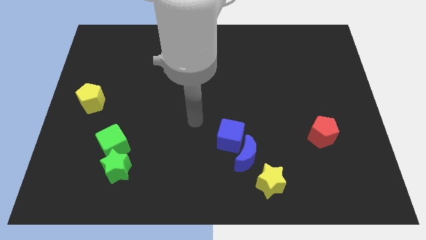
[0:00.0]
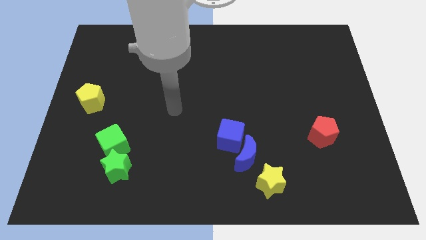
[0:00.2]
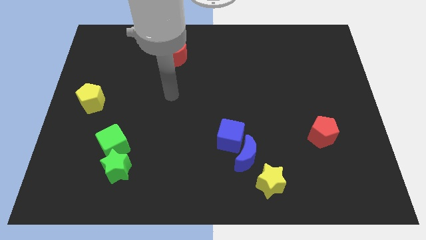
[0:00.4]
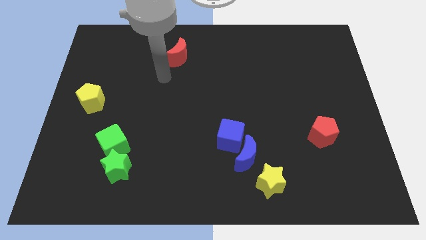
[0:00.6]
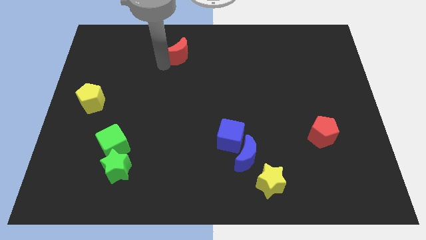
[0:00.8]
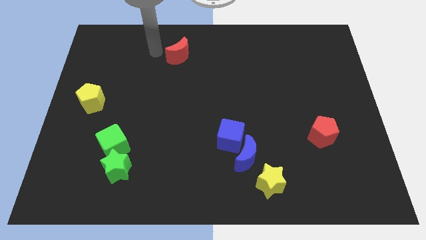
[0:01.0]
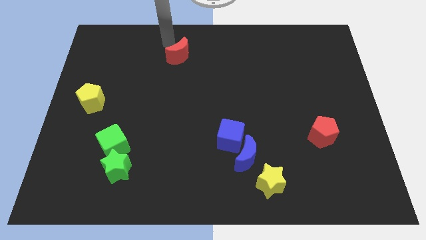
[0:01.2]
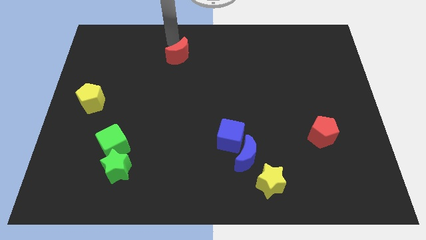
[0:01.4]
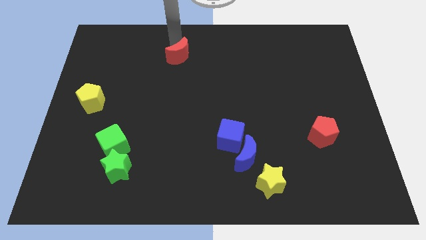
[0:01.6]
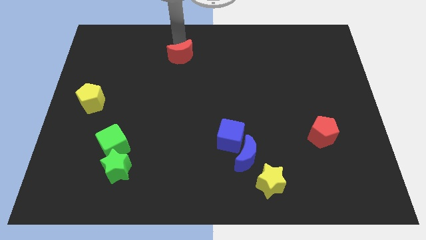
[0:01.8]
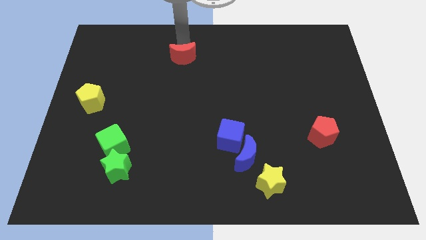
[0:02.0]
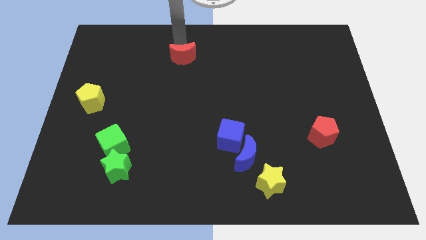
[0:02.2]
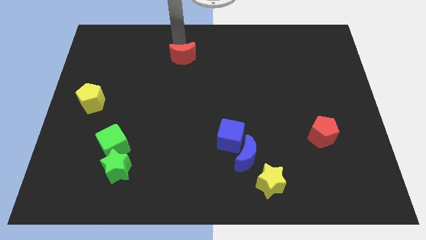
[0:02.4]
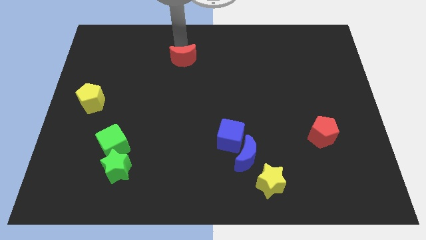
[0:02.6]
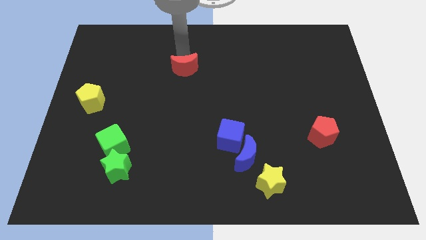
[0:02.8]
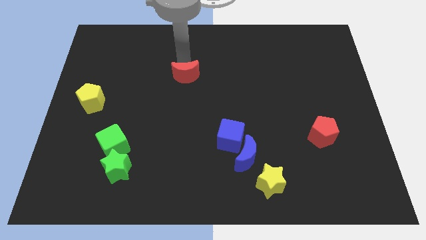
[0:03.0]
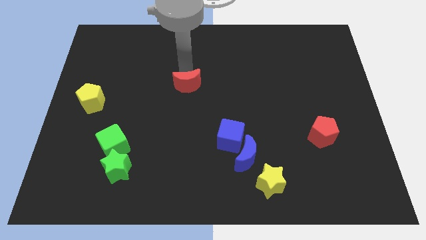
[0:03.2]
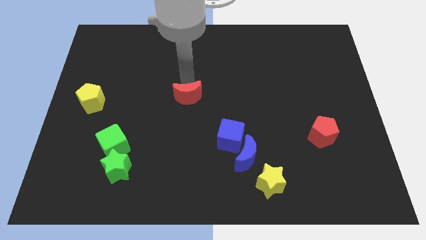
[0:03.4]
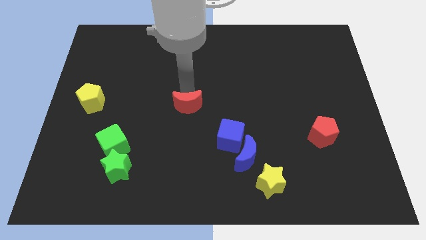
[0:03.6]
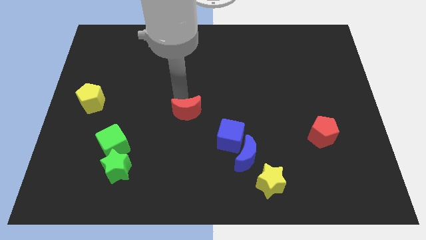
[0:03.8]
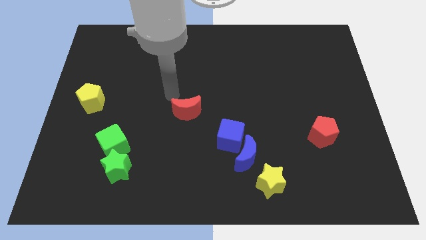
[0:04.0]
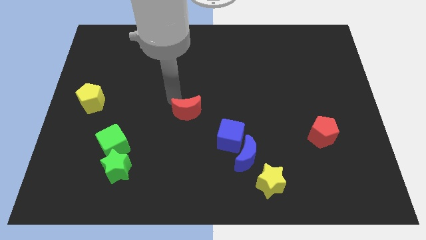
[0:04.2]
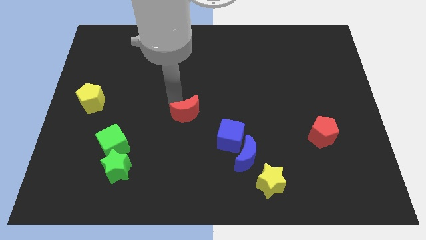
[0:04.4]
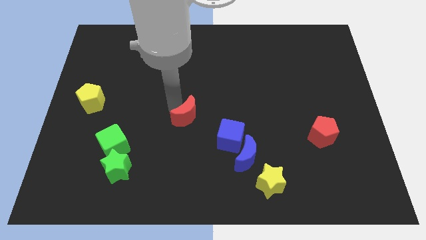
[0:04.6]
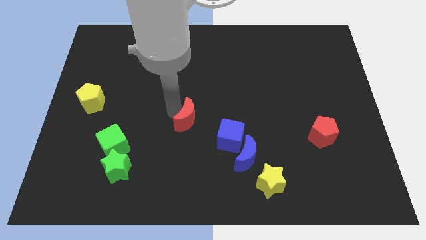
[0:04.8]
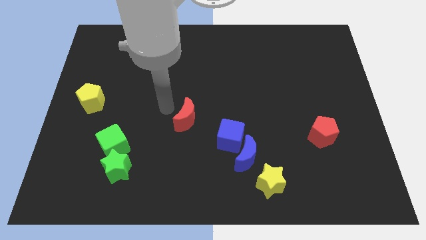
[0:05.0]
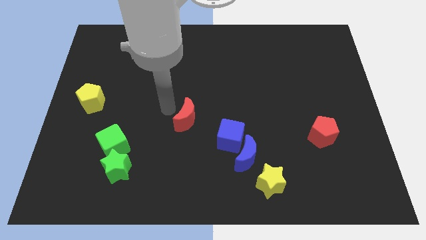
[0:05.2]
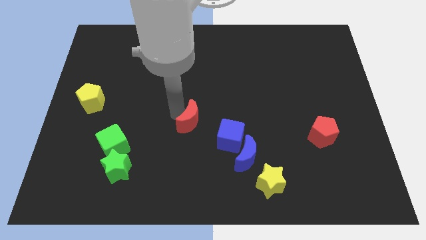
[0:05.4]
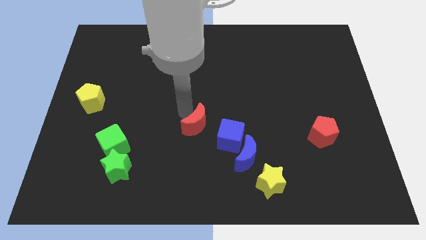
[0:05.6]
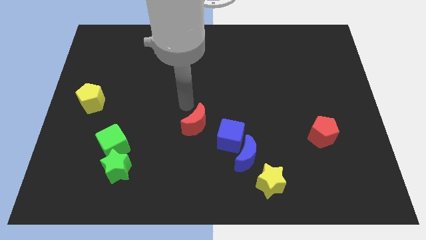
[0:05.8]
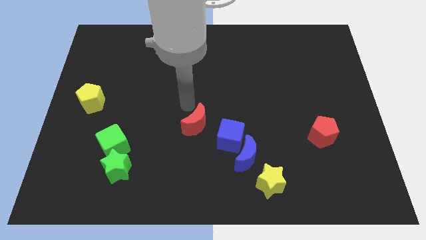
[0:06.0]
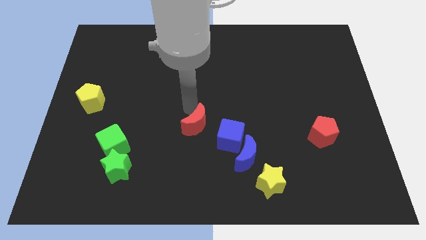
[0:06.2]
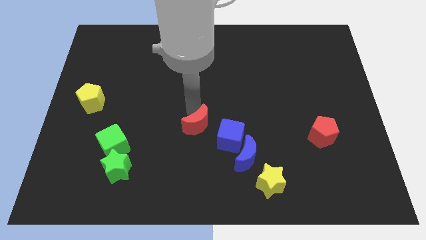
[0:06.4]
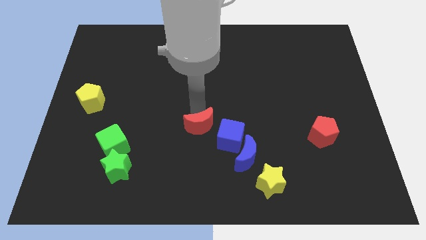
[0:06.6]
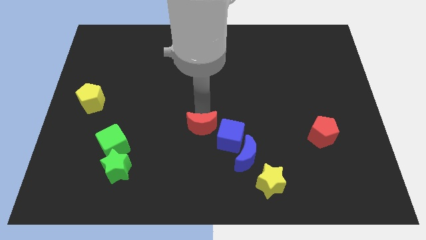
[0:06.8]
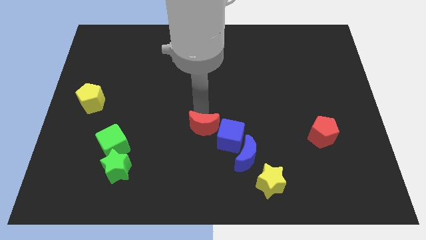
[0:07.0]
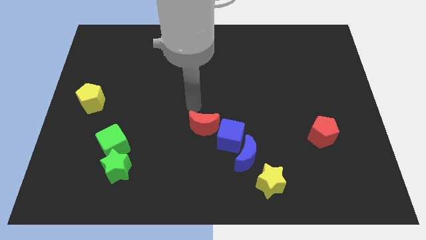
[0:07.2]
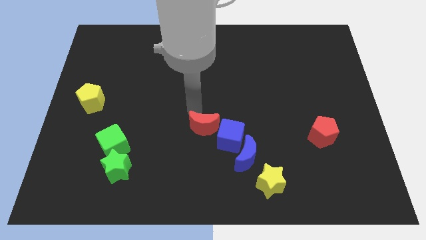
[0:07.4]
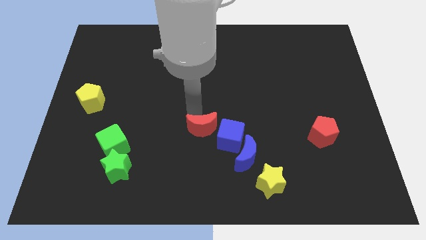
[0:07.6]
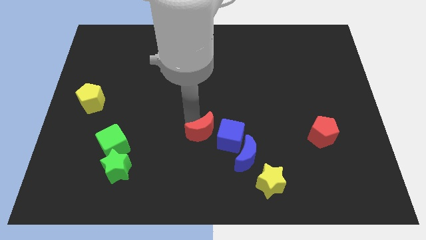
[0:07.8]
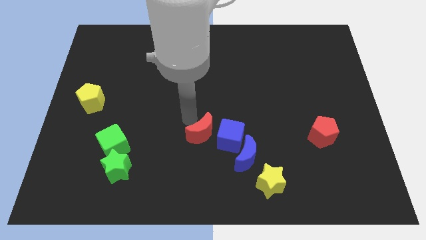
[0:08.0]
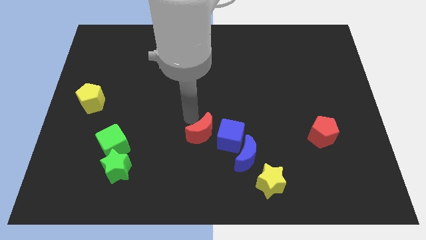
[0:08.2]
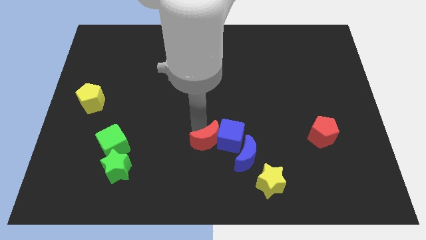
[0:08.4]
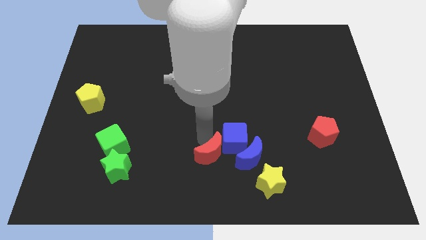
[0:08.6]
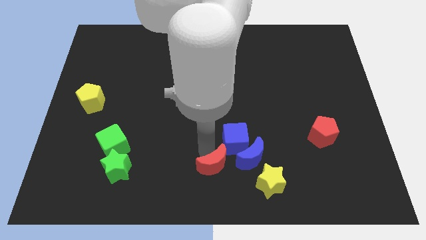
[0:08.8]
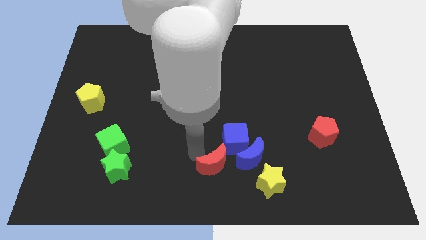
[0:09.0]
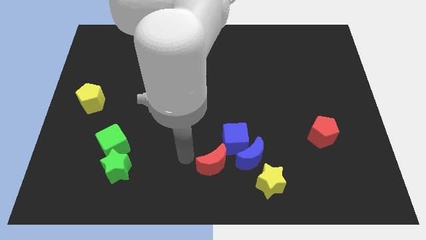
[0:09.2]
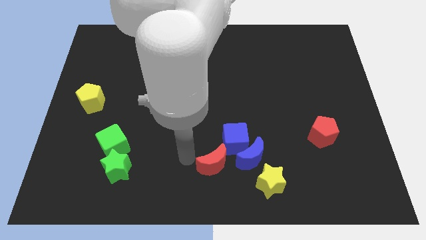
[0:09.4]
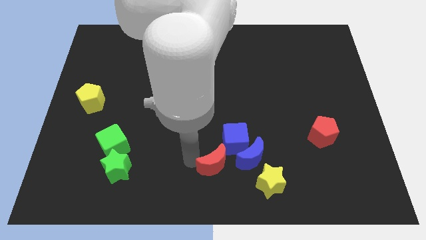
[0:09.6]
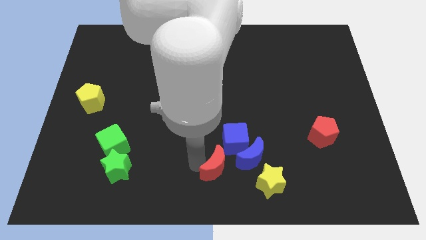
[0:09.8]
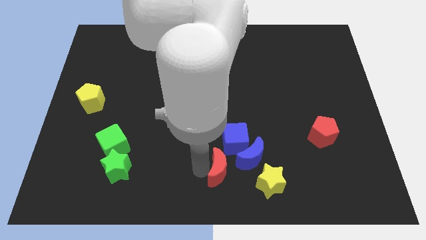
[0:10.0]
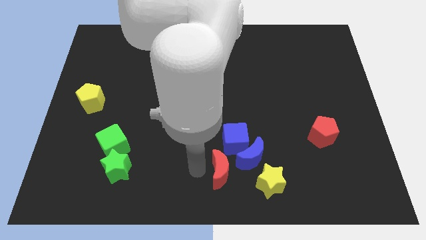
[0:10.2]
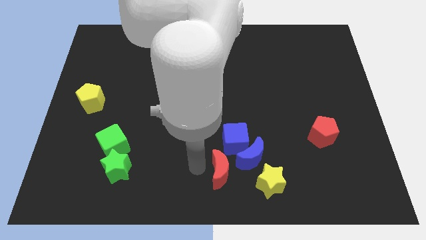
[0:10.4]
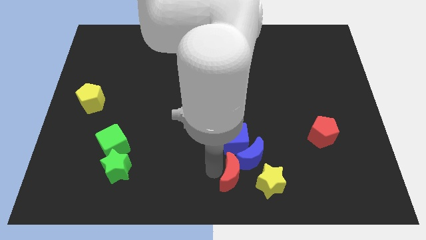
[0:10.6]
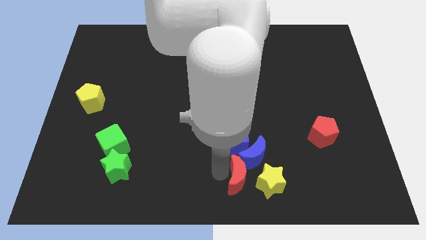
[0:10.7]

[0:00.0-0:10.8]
put the red moon towards the yellow star

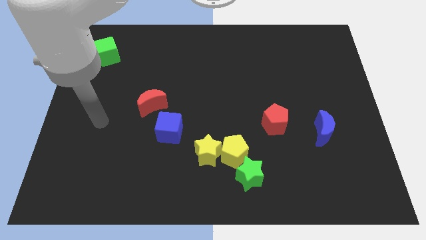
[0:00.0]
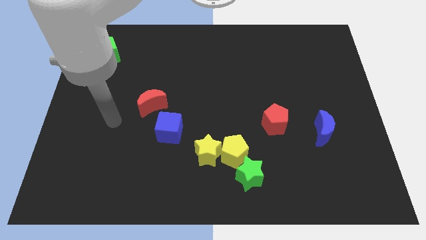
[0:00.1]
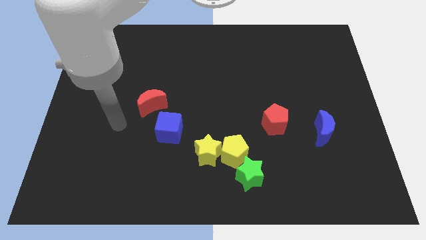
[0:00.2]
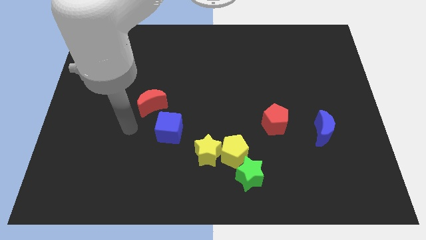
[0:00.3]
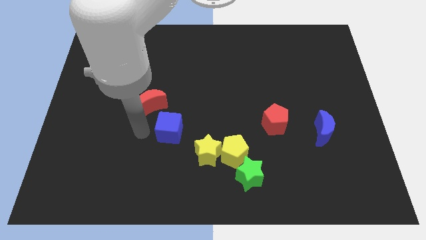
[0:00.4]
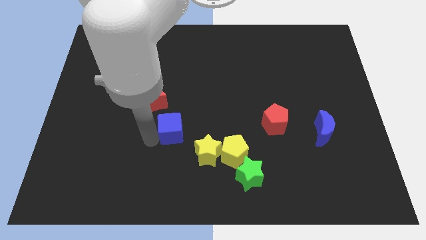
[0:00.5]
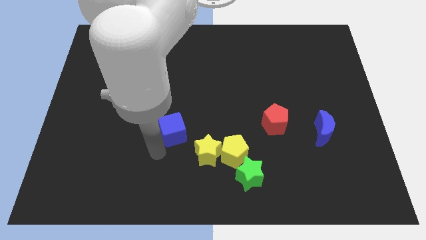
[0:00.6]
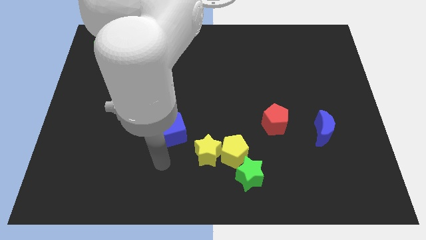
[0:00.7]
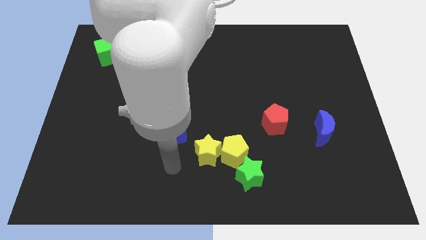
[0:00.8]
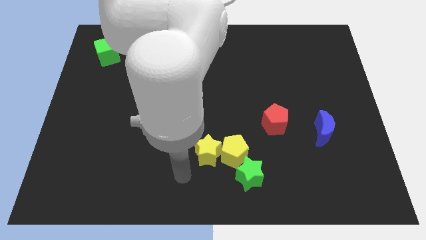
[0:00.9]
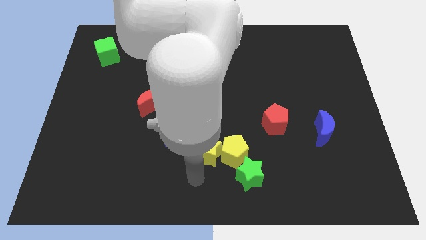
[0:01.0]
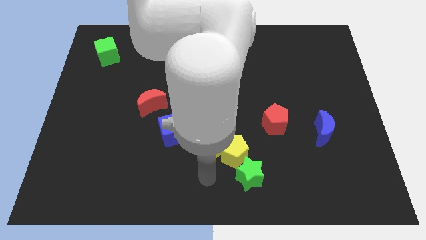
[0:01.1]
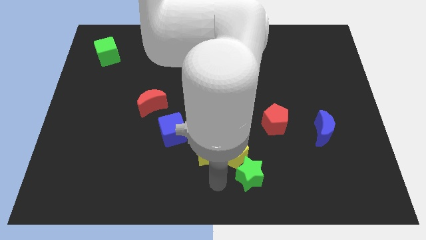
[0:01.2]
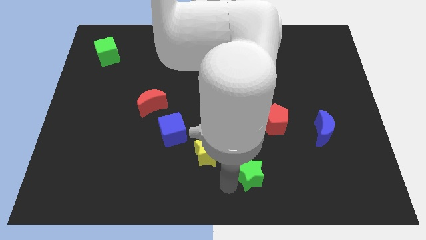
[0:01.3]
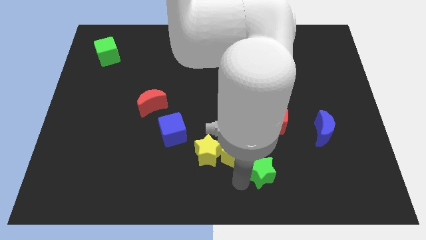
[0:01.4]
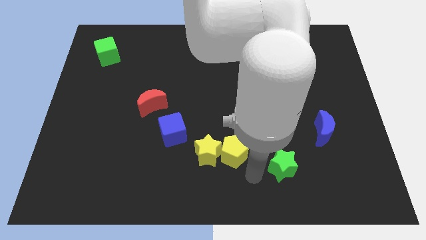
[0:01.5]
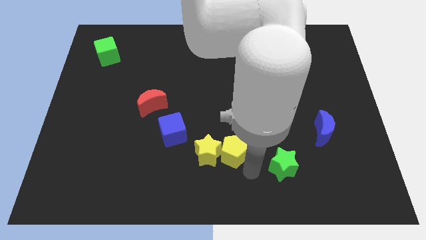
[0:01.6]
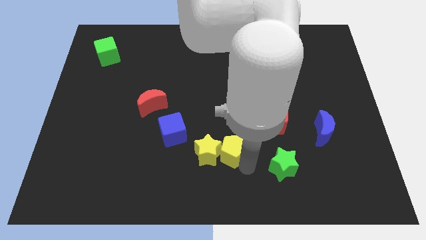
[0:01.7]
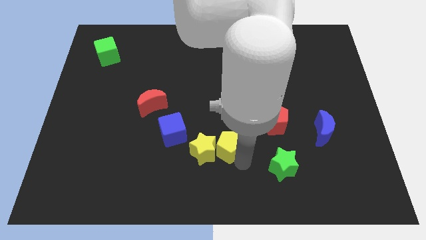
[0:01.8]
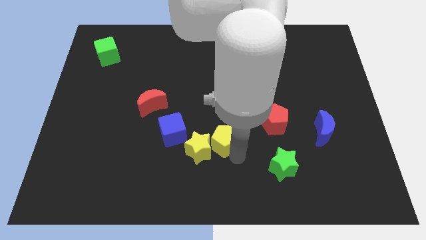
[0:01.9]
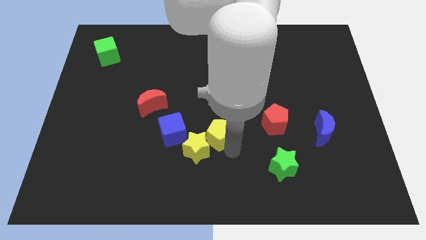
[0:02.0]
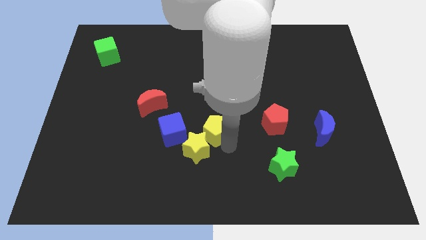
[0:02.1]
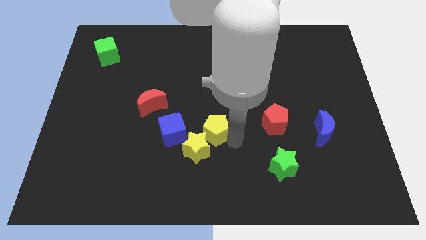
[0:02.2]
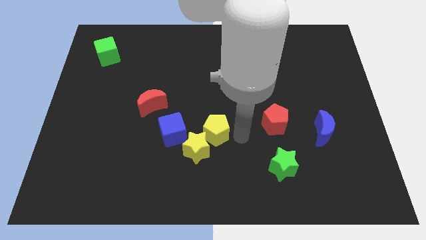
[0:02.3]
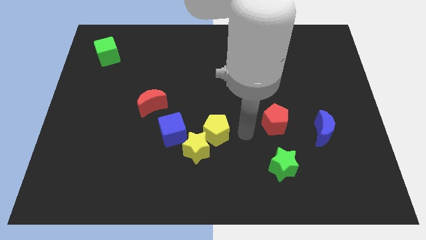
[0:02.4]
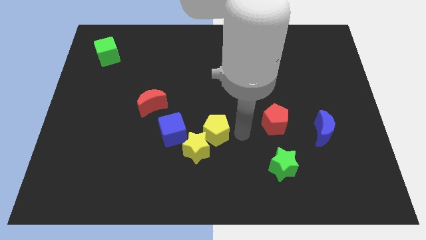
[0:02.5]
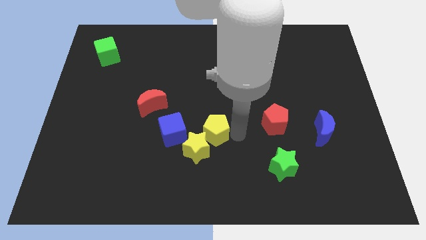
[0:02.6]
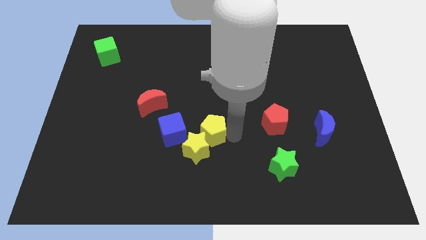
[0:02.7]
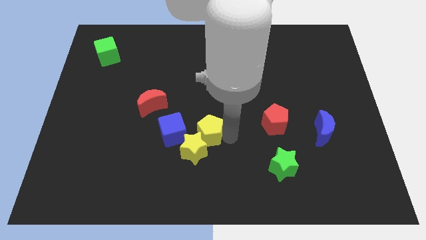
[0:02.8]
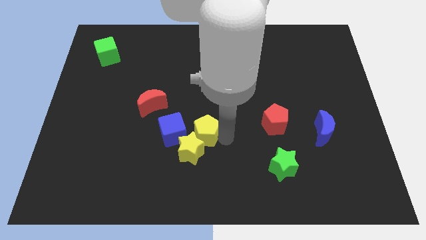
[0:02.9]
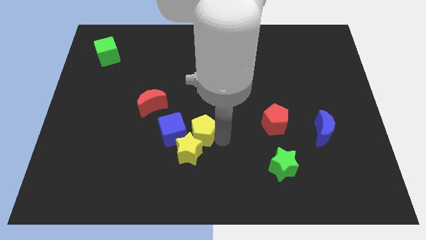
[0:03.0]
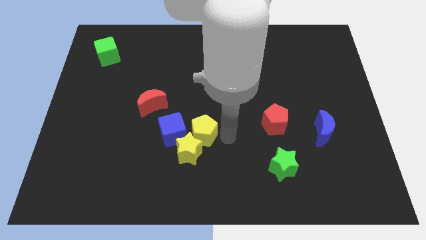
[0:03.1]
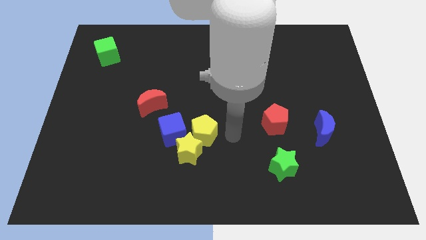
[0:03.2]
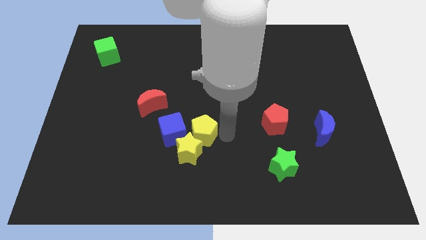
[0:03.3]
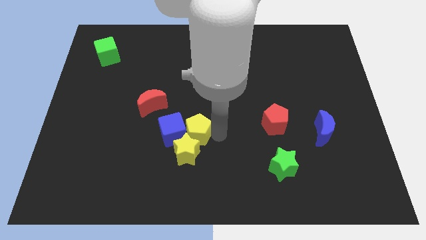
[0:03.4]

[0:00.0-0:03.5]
put the yellow pentagon next to the blue cube
